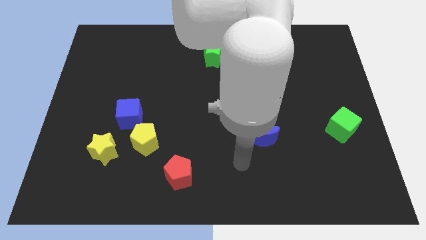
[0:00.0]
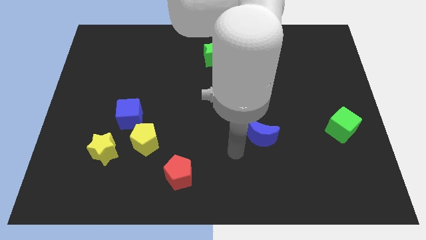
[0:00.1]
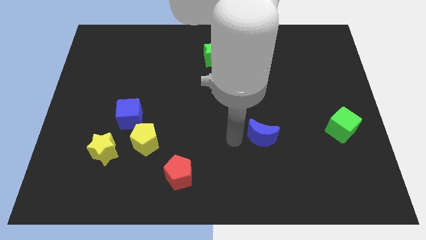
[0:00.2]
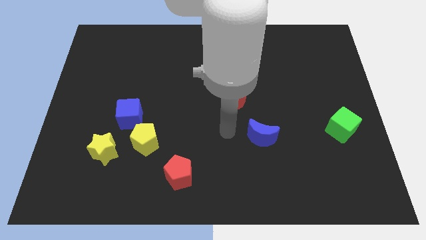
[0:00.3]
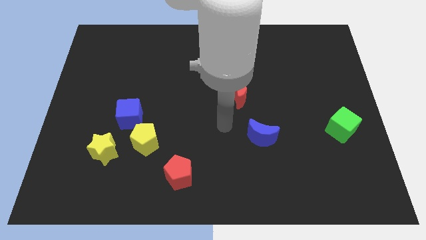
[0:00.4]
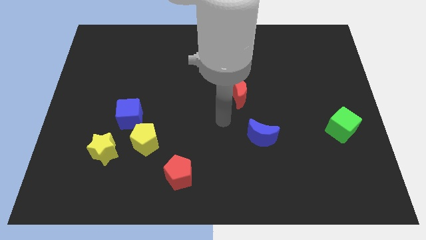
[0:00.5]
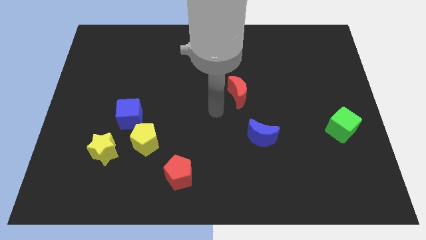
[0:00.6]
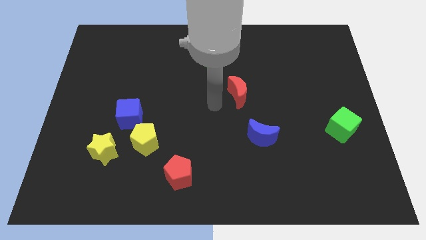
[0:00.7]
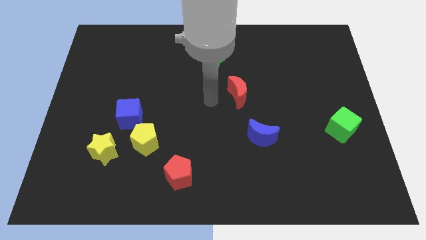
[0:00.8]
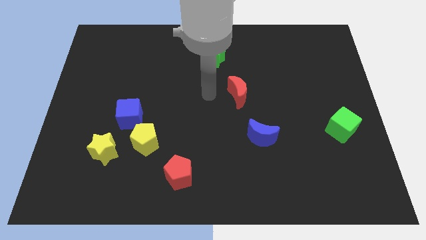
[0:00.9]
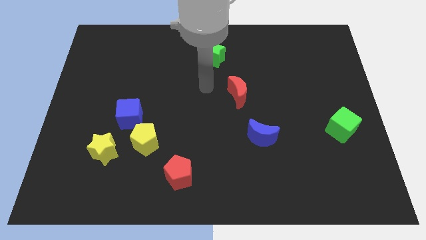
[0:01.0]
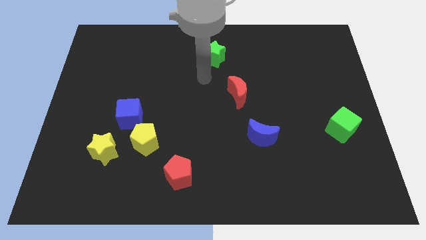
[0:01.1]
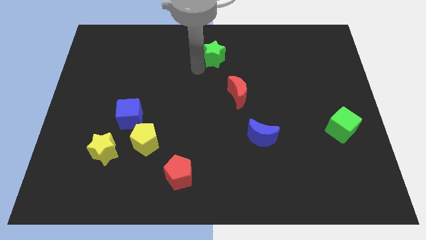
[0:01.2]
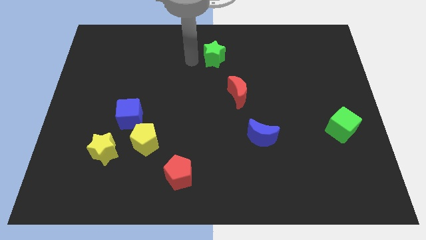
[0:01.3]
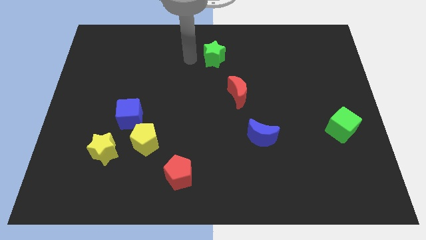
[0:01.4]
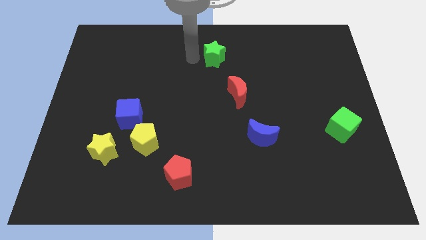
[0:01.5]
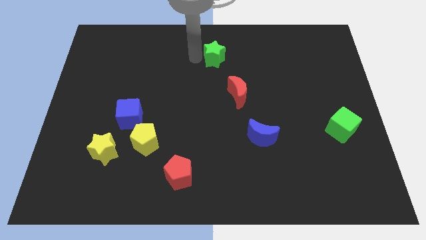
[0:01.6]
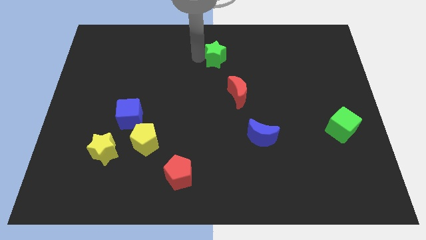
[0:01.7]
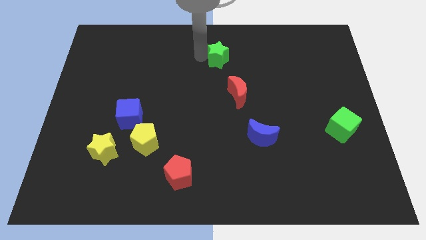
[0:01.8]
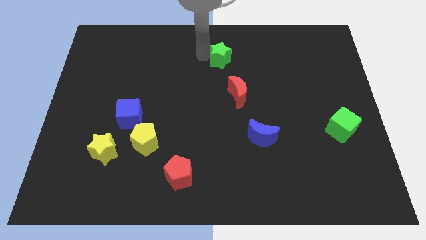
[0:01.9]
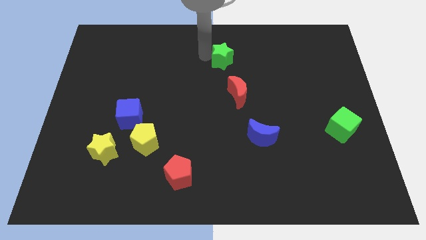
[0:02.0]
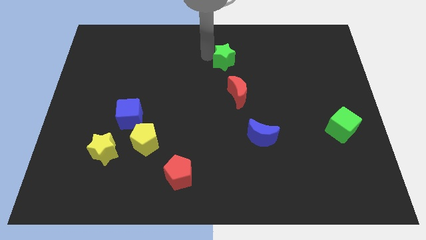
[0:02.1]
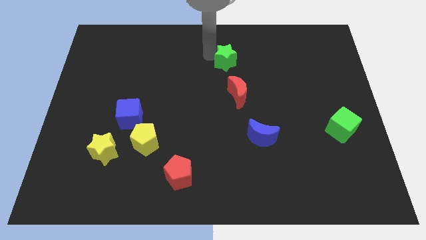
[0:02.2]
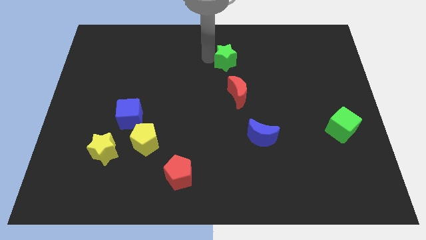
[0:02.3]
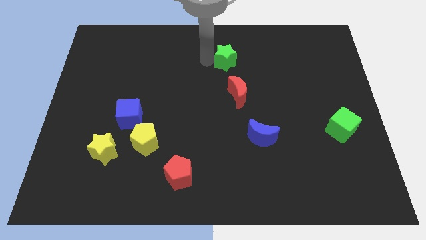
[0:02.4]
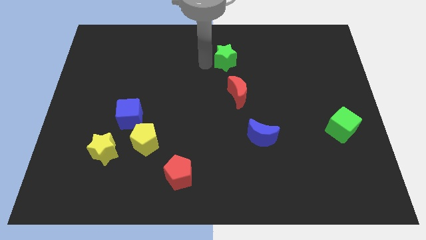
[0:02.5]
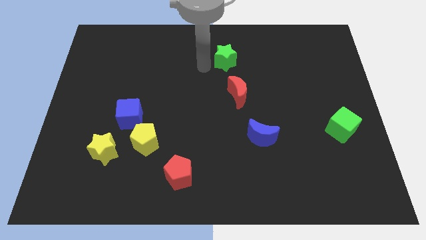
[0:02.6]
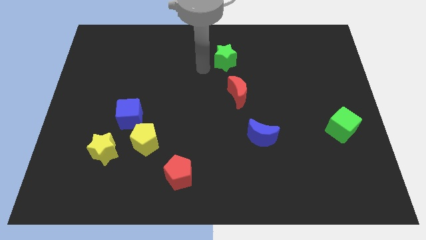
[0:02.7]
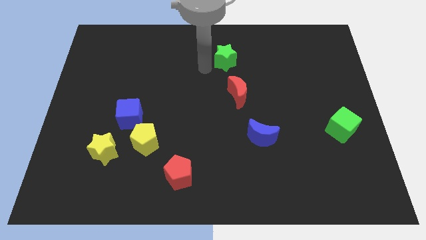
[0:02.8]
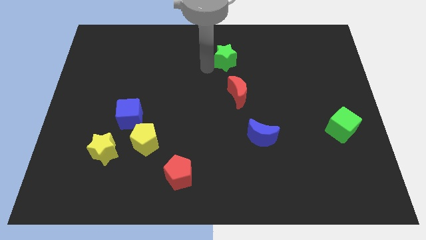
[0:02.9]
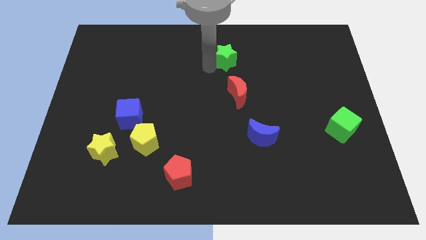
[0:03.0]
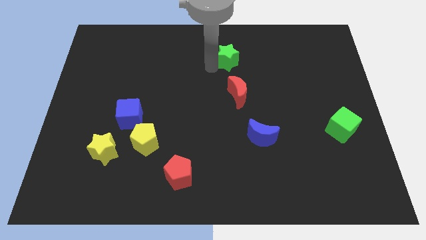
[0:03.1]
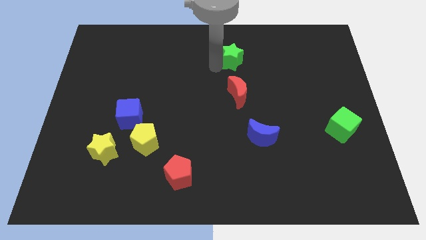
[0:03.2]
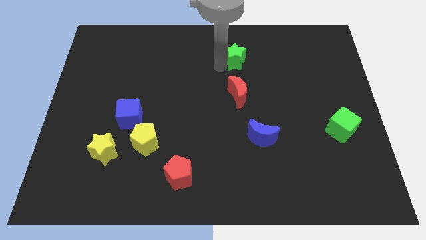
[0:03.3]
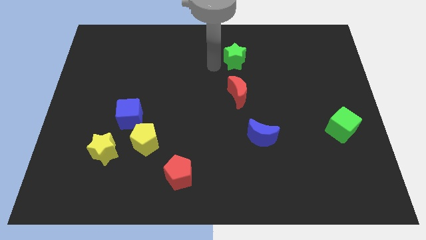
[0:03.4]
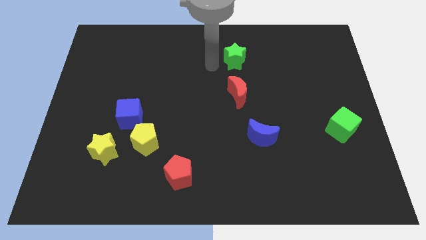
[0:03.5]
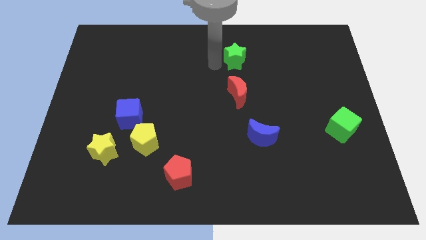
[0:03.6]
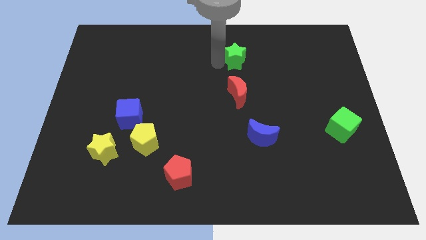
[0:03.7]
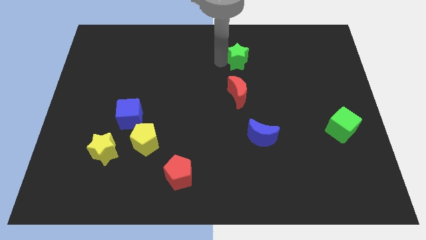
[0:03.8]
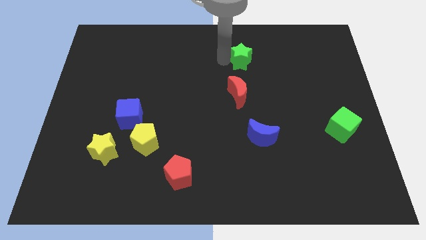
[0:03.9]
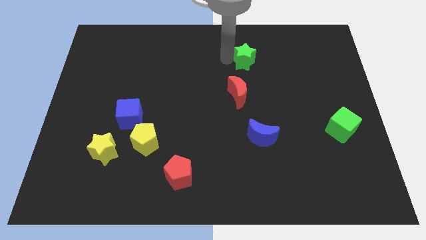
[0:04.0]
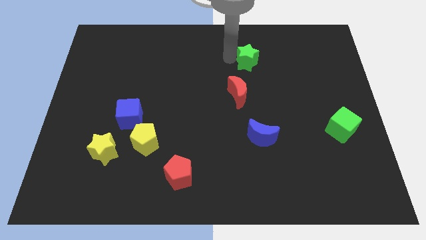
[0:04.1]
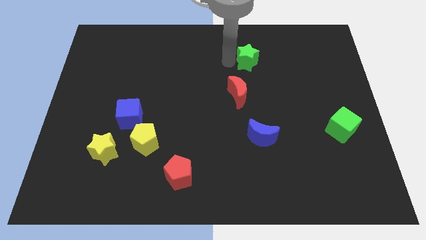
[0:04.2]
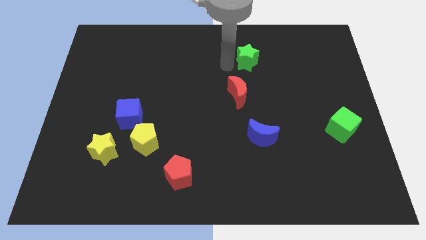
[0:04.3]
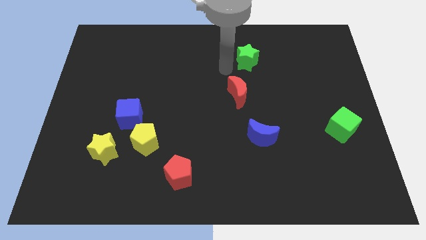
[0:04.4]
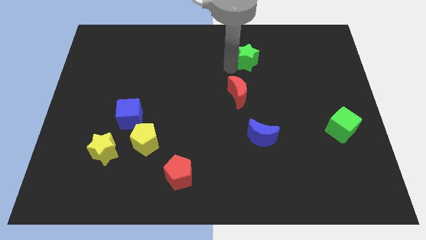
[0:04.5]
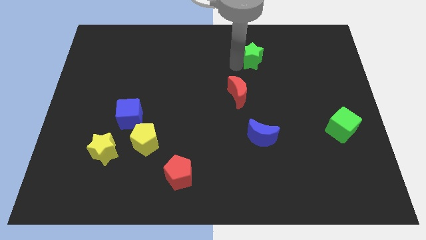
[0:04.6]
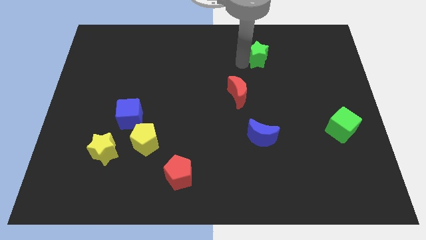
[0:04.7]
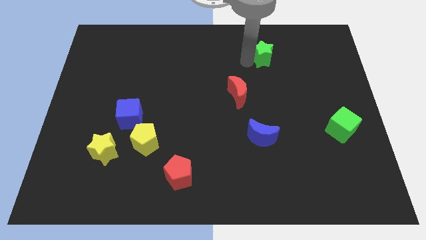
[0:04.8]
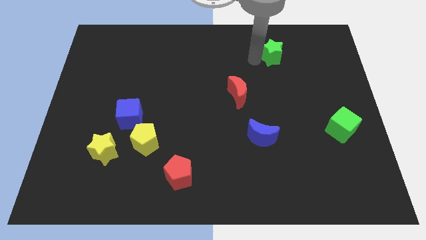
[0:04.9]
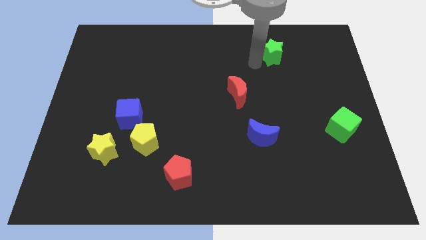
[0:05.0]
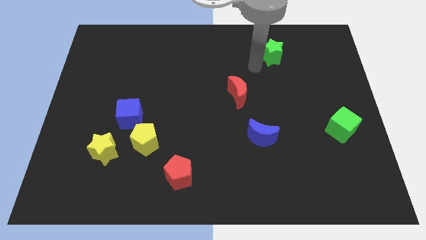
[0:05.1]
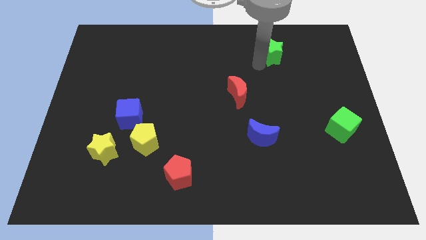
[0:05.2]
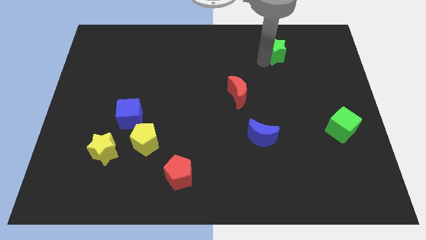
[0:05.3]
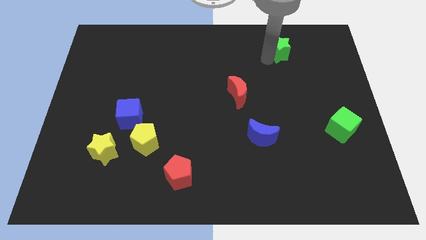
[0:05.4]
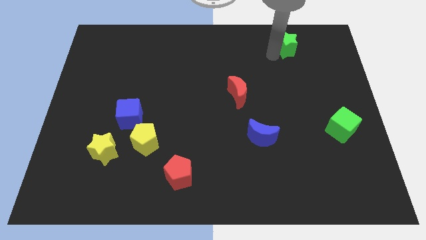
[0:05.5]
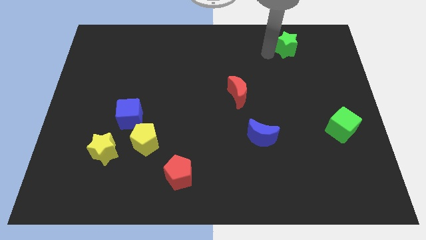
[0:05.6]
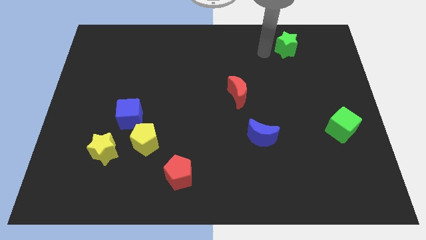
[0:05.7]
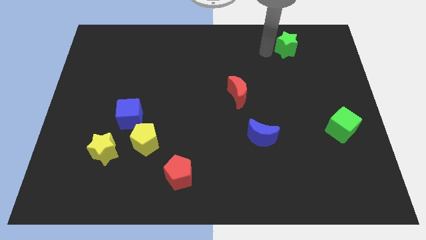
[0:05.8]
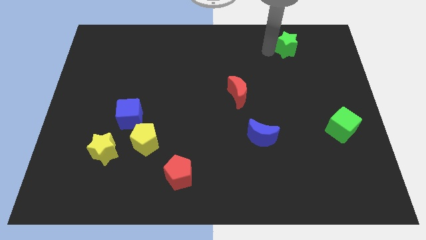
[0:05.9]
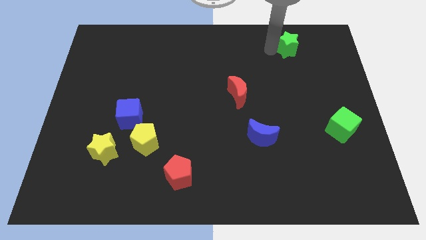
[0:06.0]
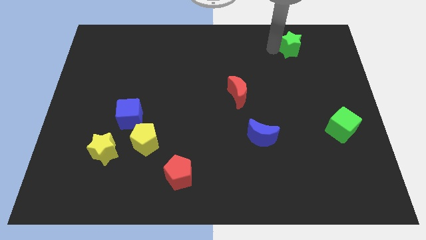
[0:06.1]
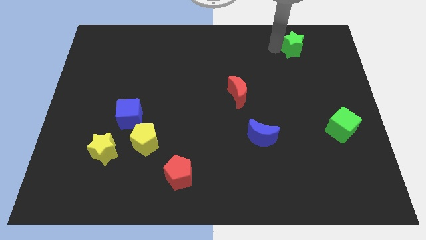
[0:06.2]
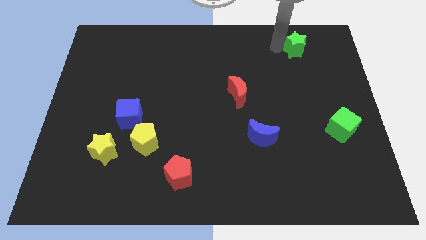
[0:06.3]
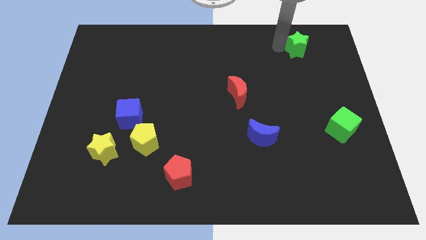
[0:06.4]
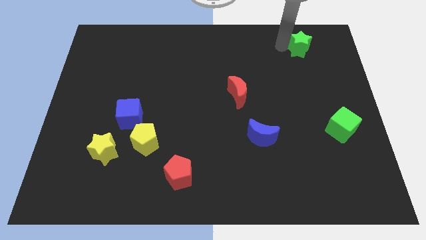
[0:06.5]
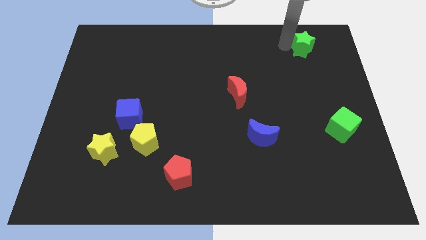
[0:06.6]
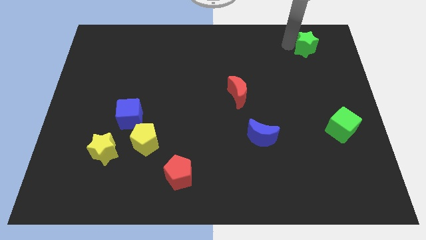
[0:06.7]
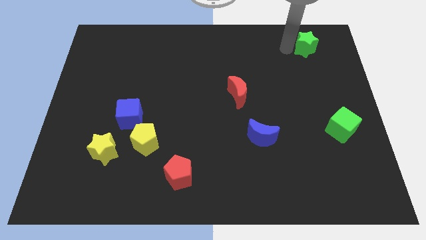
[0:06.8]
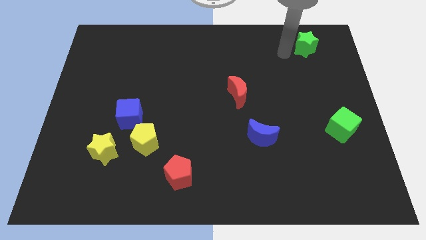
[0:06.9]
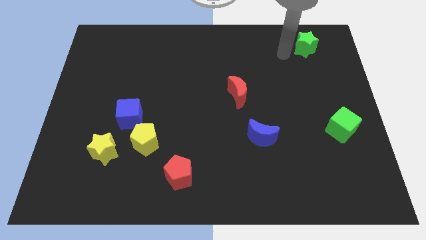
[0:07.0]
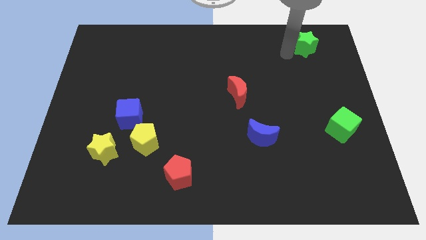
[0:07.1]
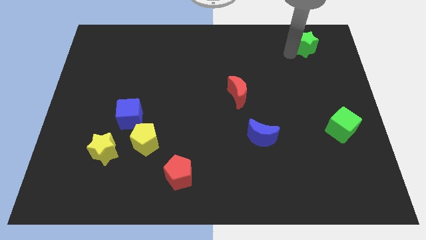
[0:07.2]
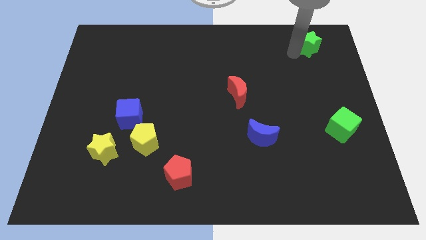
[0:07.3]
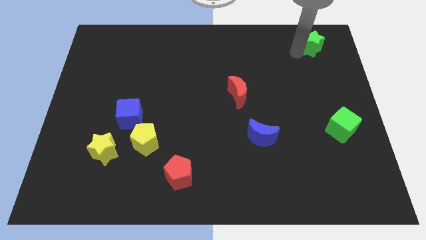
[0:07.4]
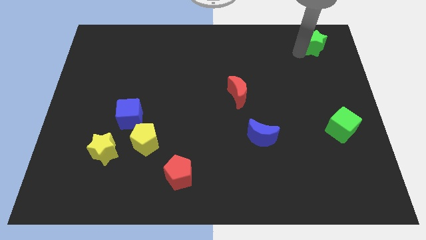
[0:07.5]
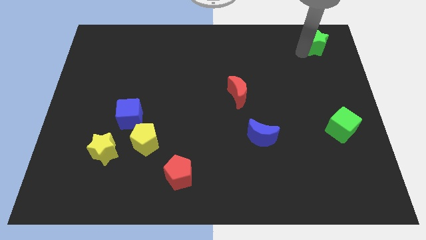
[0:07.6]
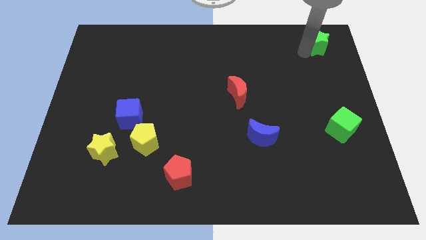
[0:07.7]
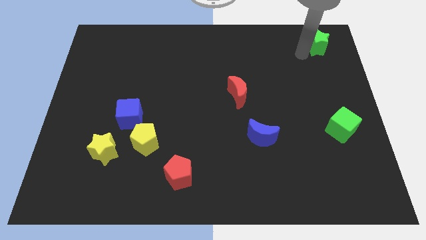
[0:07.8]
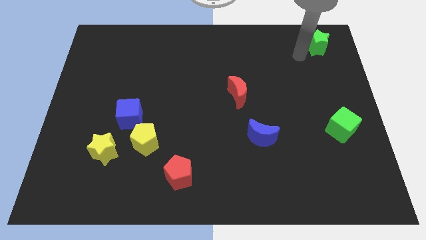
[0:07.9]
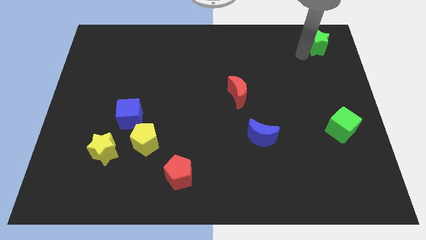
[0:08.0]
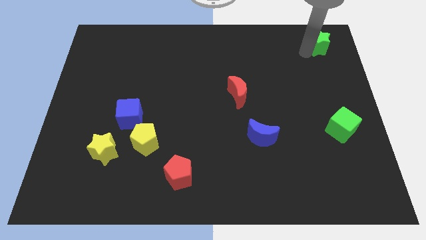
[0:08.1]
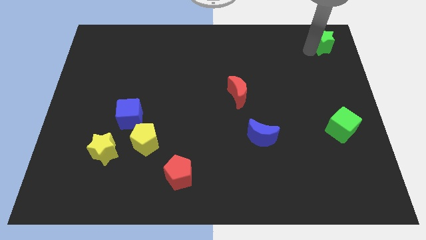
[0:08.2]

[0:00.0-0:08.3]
put the green star to the upper right corner
